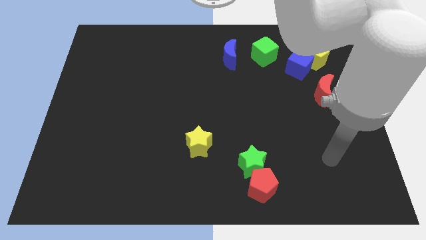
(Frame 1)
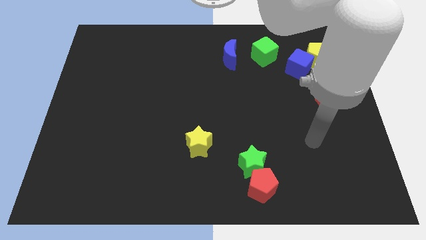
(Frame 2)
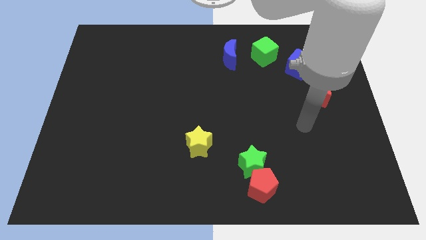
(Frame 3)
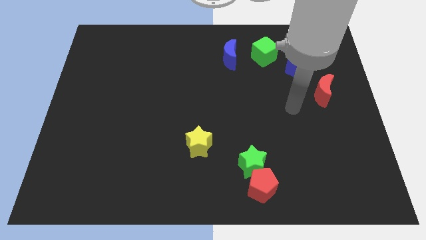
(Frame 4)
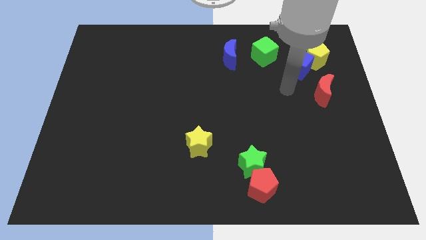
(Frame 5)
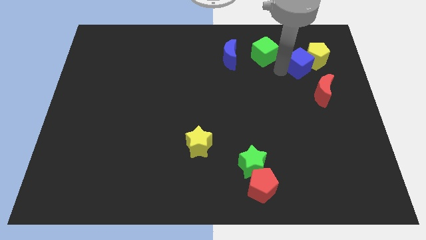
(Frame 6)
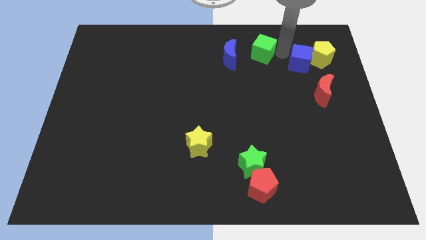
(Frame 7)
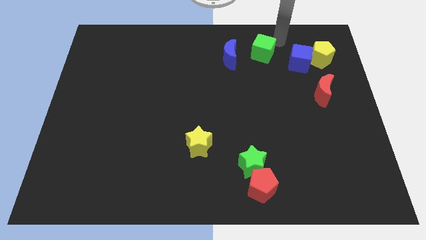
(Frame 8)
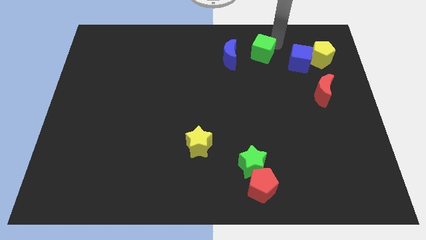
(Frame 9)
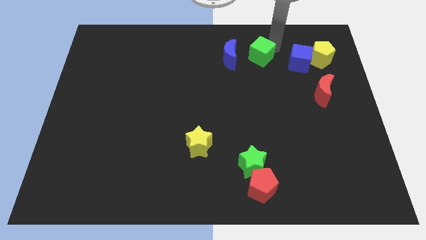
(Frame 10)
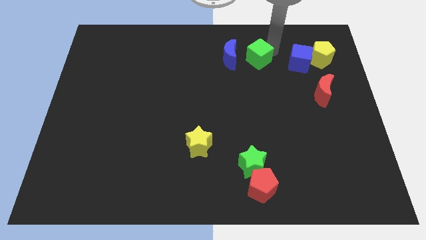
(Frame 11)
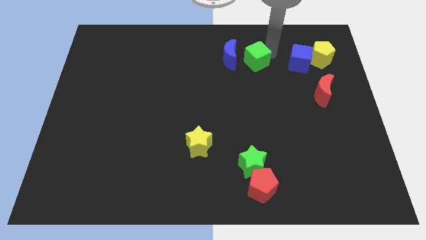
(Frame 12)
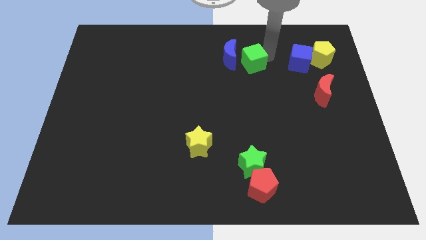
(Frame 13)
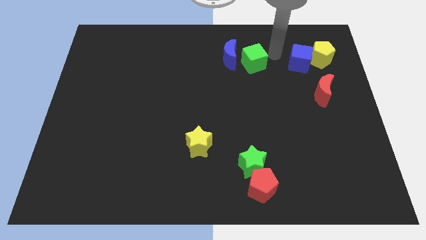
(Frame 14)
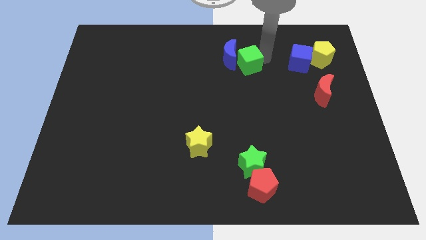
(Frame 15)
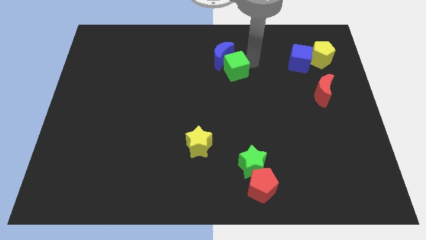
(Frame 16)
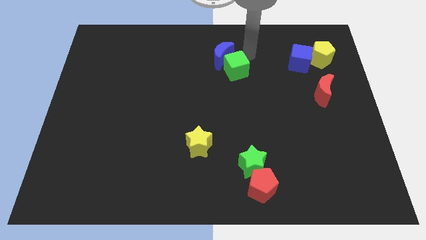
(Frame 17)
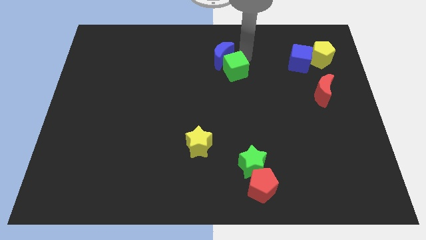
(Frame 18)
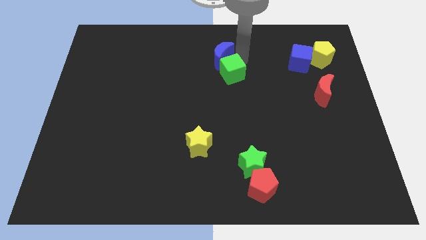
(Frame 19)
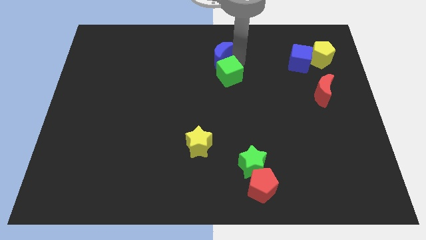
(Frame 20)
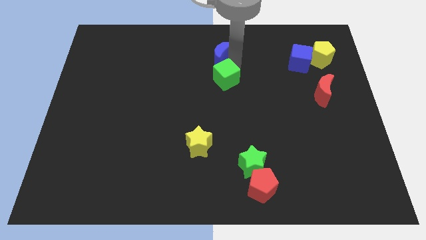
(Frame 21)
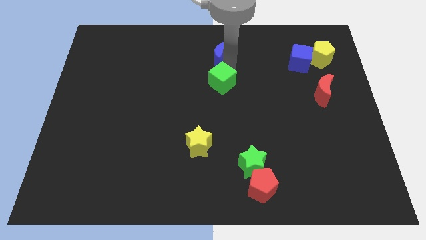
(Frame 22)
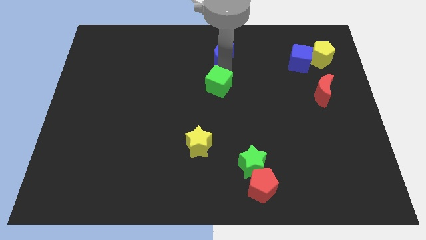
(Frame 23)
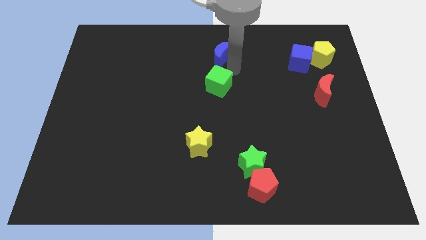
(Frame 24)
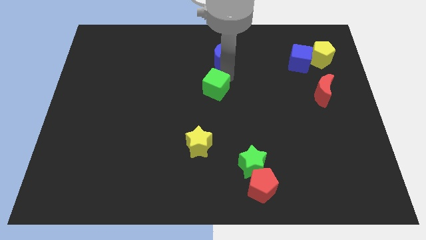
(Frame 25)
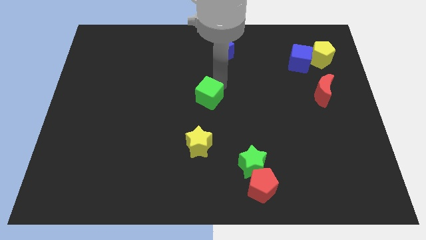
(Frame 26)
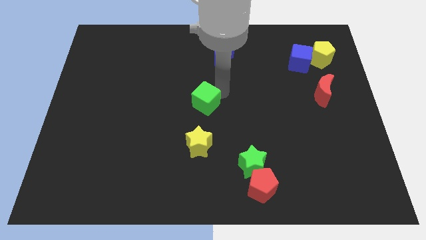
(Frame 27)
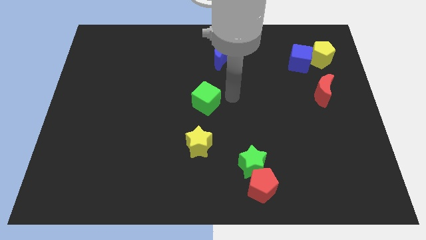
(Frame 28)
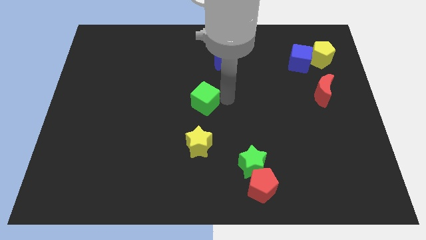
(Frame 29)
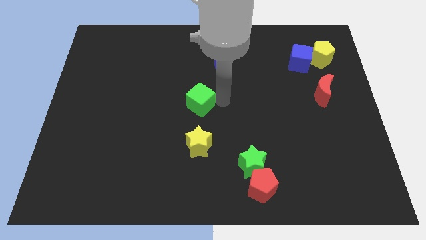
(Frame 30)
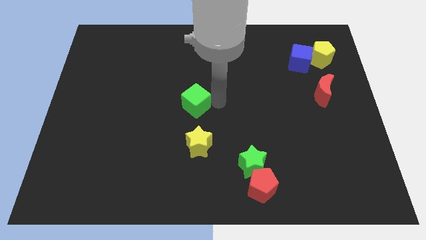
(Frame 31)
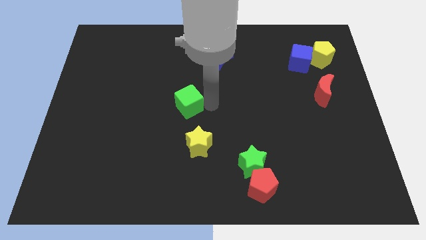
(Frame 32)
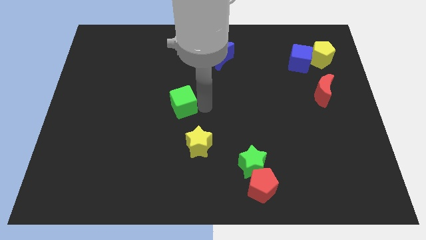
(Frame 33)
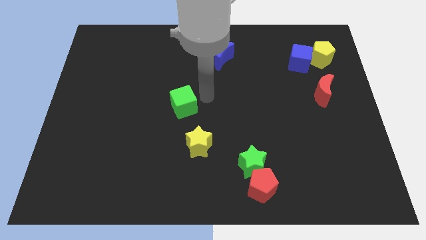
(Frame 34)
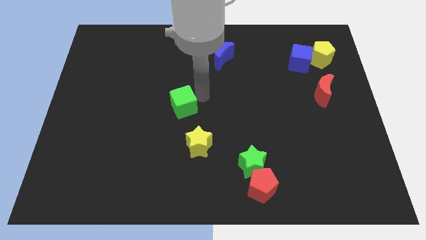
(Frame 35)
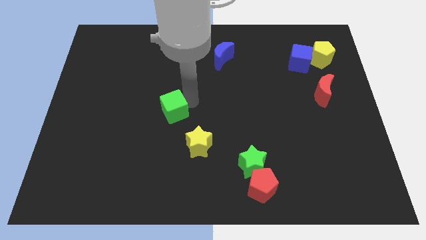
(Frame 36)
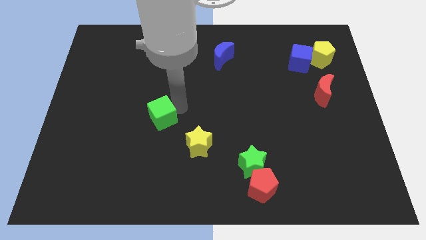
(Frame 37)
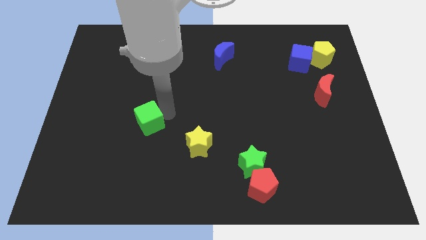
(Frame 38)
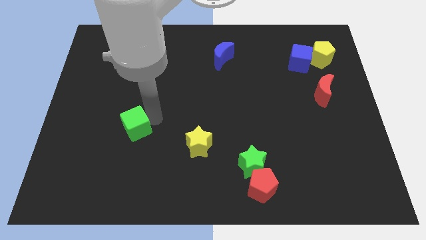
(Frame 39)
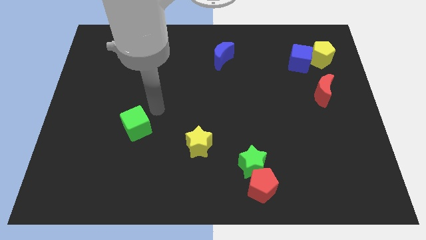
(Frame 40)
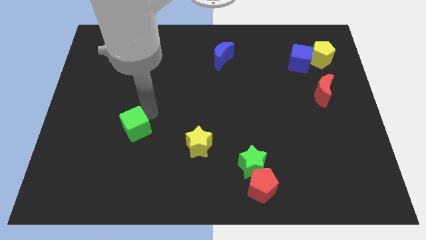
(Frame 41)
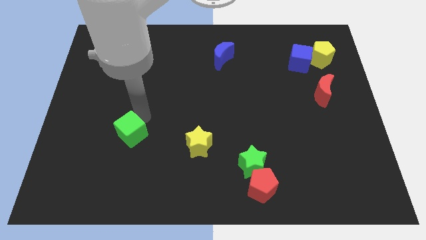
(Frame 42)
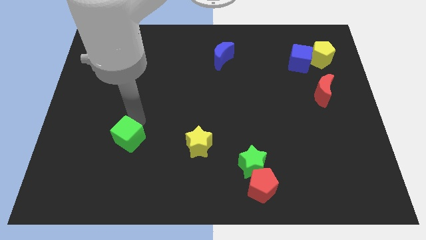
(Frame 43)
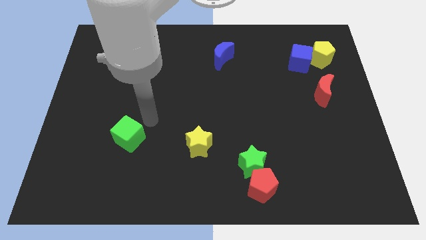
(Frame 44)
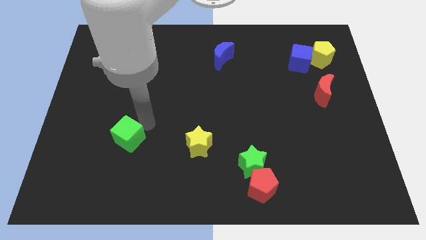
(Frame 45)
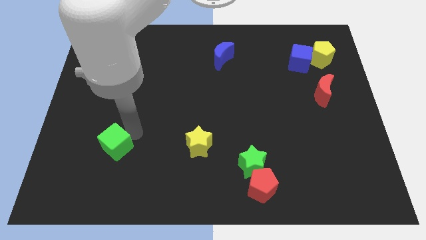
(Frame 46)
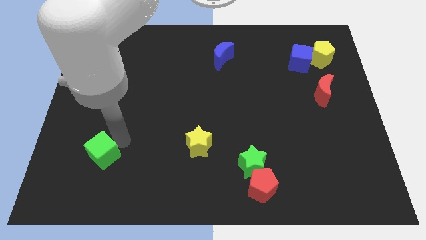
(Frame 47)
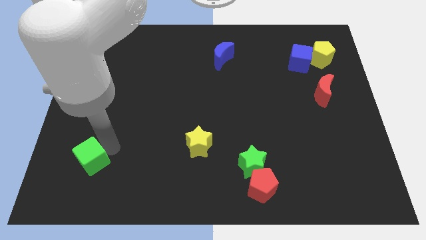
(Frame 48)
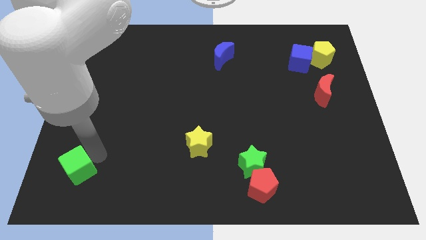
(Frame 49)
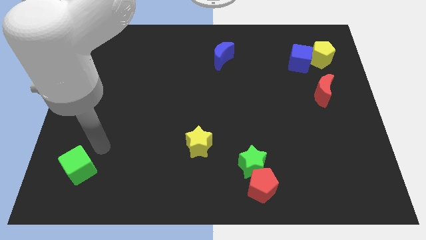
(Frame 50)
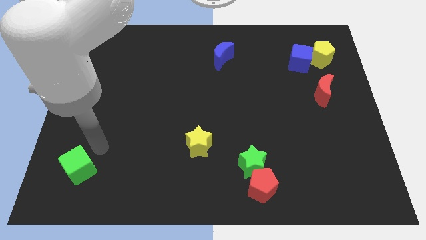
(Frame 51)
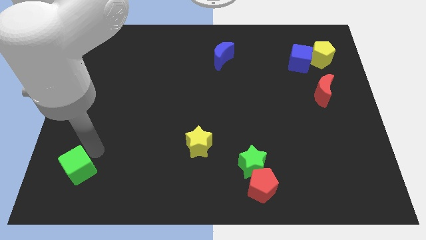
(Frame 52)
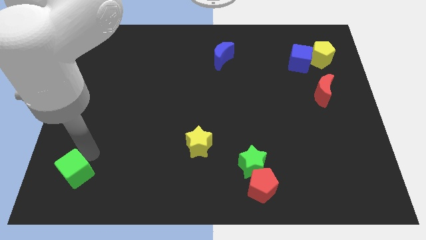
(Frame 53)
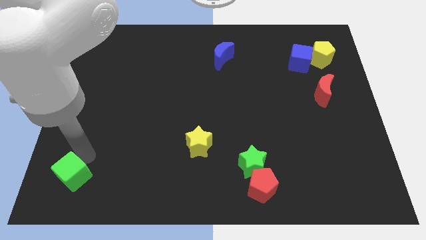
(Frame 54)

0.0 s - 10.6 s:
put the green cube to the bottom left of the board

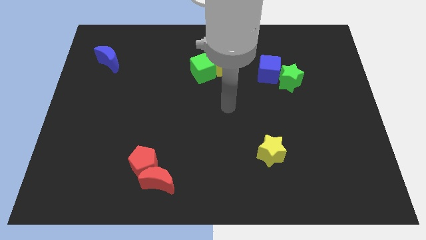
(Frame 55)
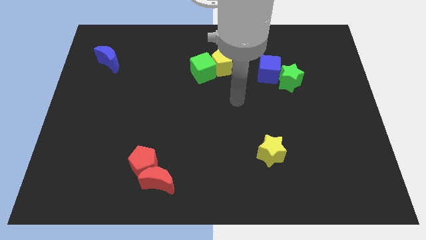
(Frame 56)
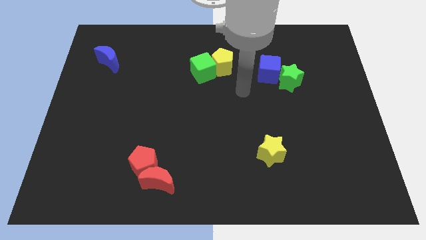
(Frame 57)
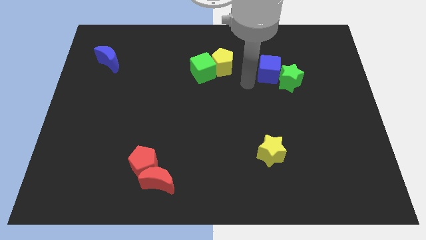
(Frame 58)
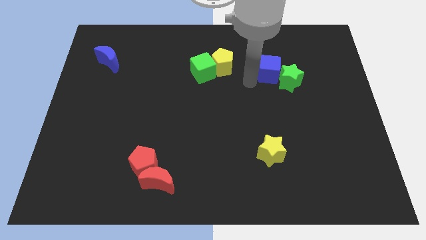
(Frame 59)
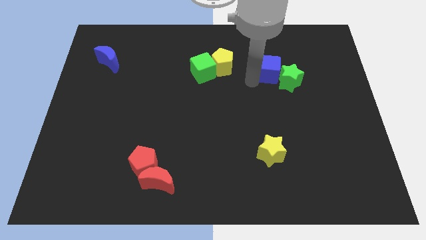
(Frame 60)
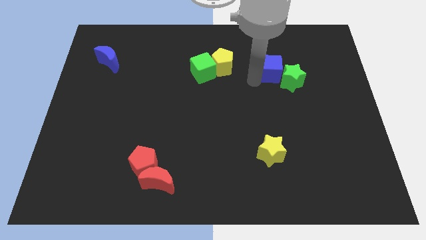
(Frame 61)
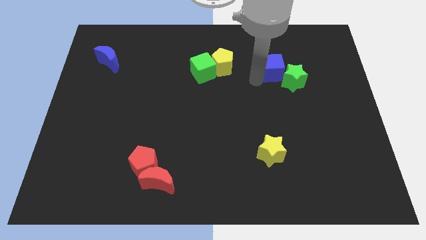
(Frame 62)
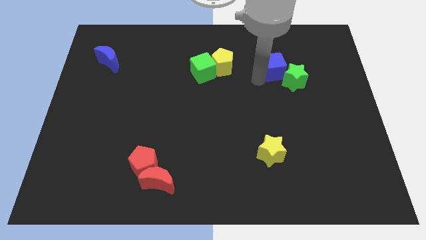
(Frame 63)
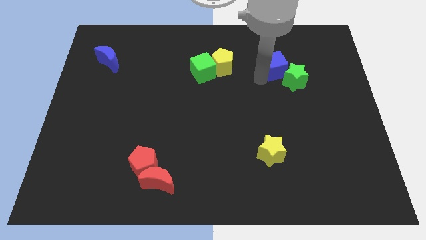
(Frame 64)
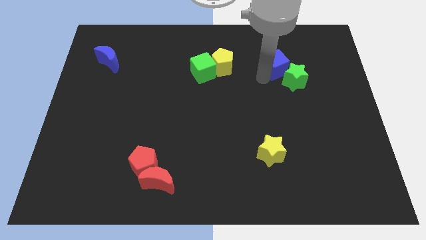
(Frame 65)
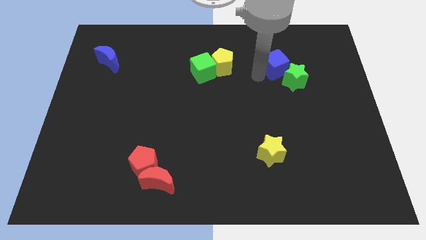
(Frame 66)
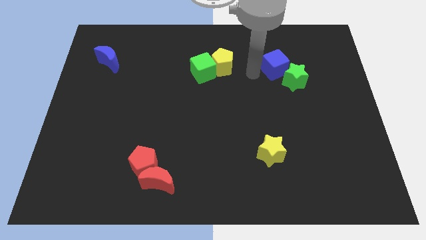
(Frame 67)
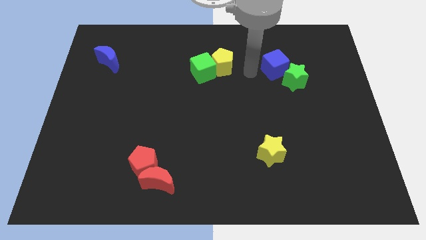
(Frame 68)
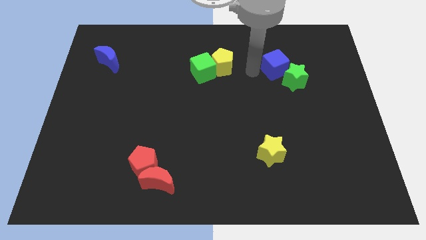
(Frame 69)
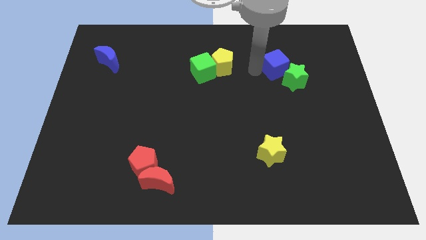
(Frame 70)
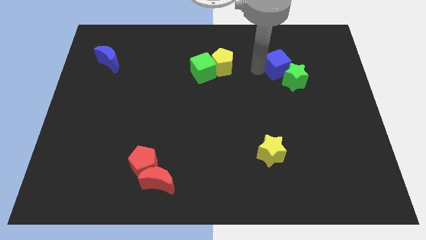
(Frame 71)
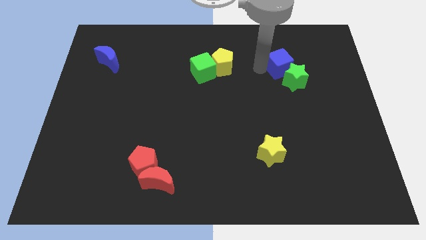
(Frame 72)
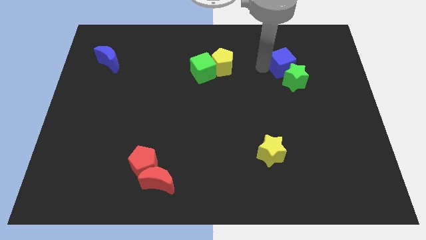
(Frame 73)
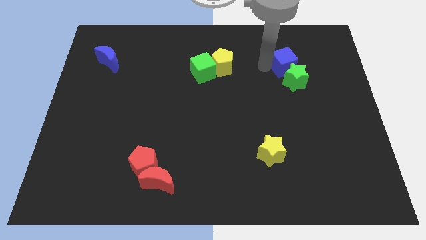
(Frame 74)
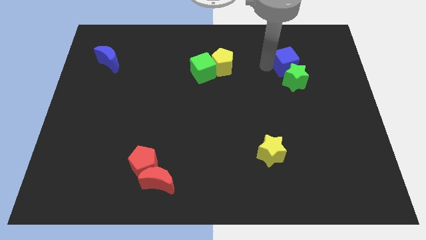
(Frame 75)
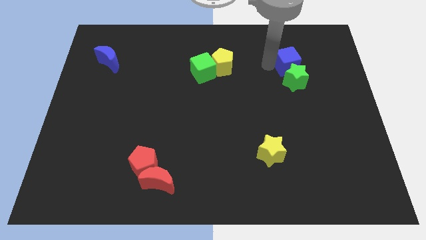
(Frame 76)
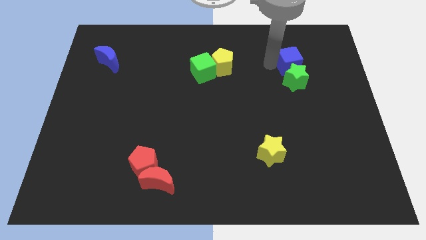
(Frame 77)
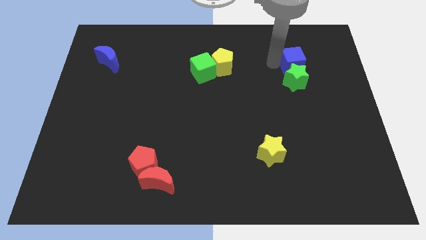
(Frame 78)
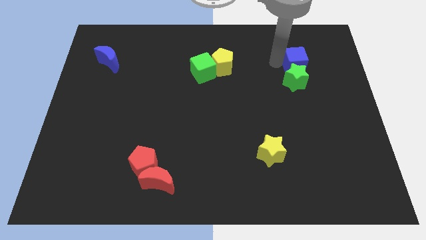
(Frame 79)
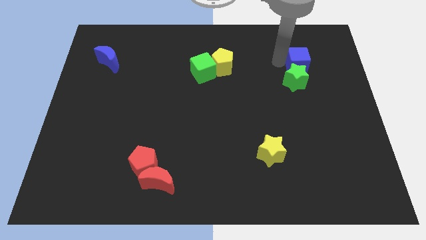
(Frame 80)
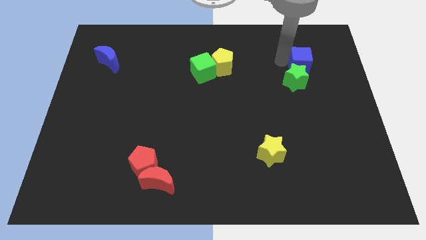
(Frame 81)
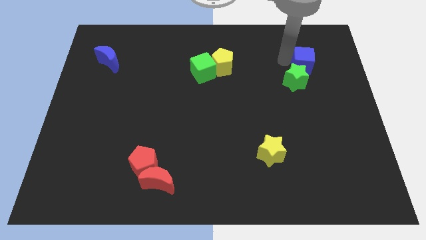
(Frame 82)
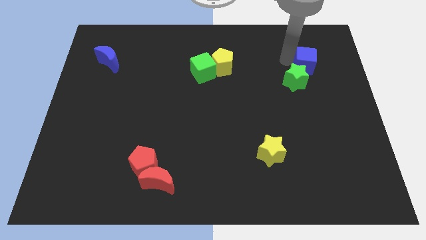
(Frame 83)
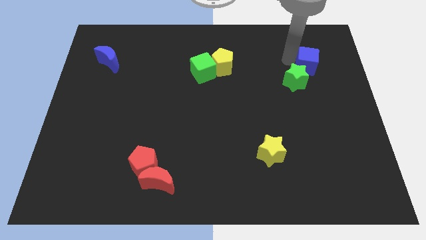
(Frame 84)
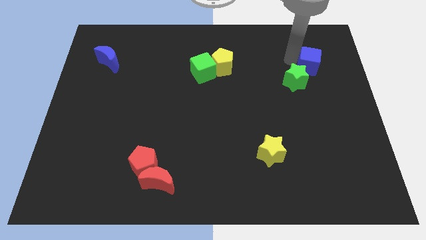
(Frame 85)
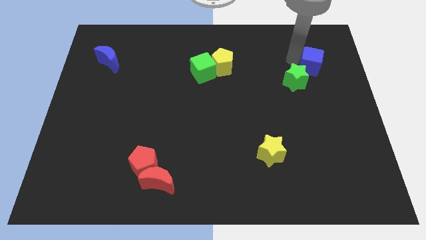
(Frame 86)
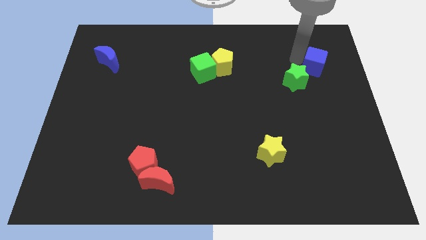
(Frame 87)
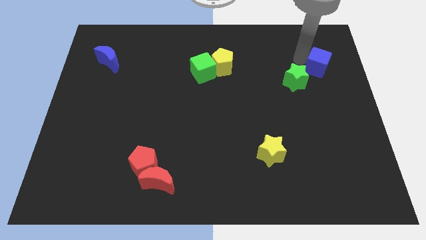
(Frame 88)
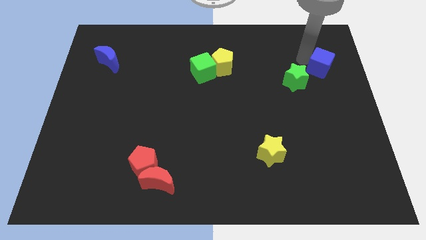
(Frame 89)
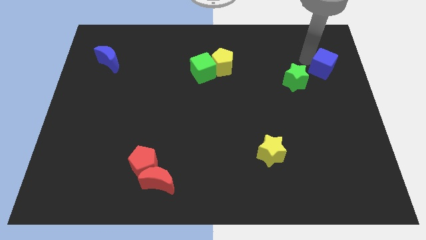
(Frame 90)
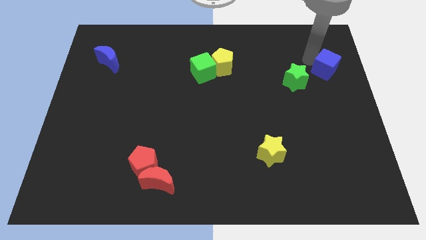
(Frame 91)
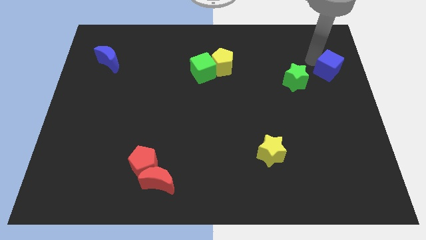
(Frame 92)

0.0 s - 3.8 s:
move the blue cube to the right side
